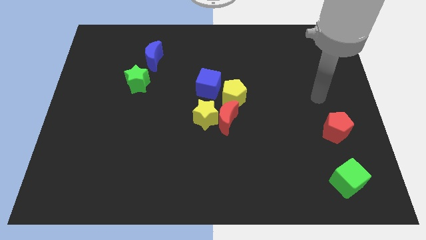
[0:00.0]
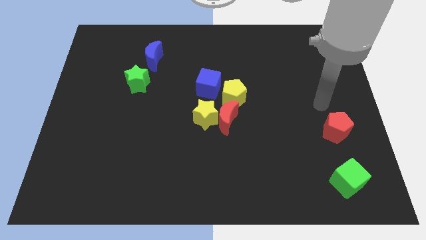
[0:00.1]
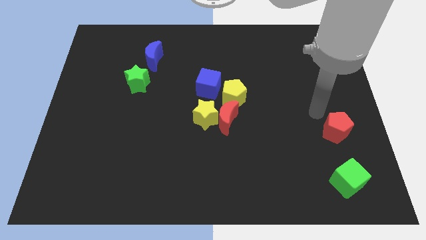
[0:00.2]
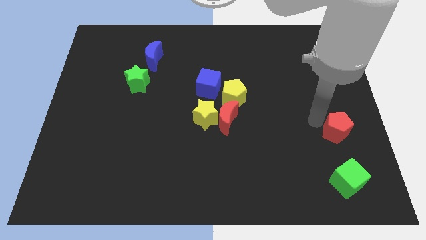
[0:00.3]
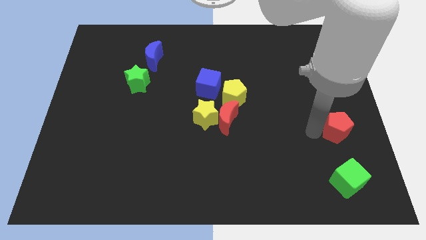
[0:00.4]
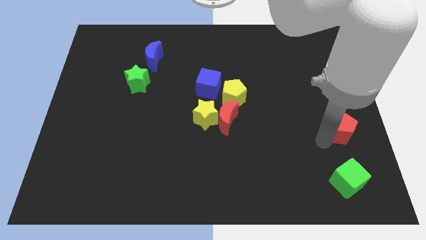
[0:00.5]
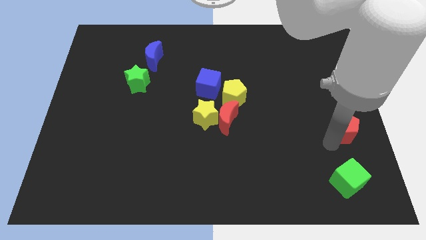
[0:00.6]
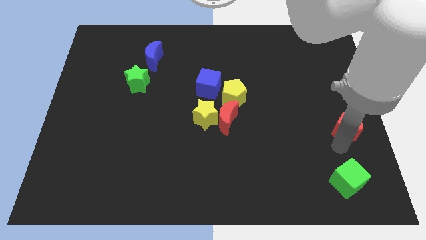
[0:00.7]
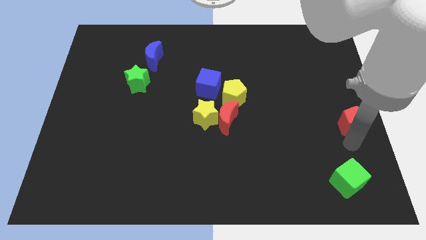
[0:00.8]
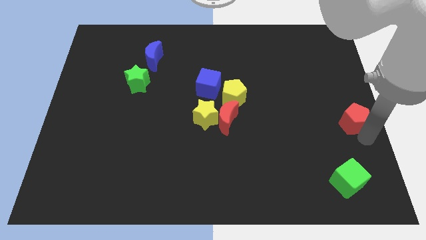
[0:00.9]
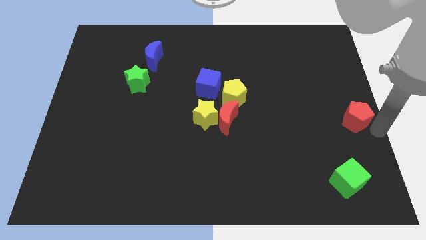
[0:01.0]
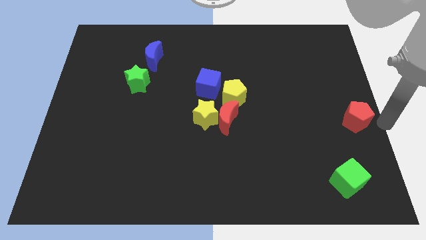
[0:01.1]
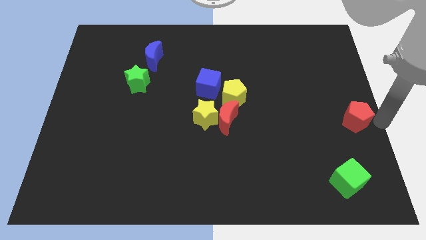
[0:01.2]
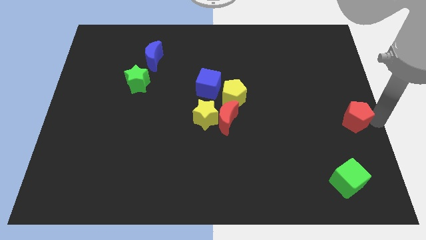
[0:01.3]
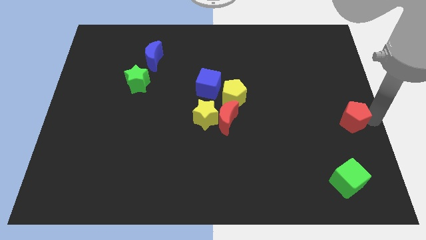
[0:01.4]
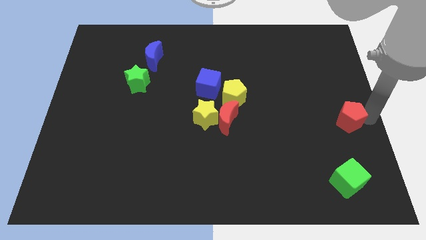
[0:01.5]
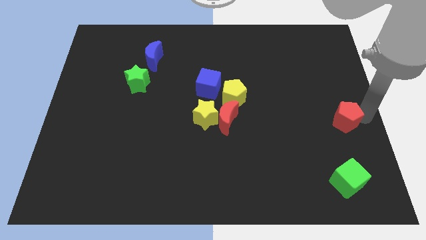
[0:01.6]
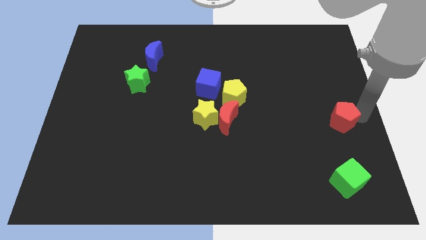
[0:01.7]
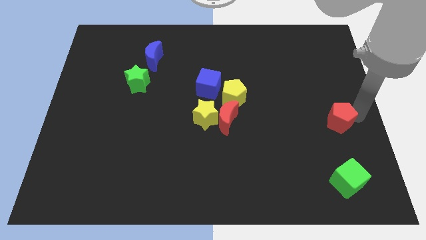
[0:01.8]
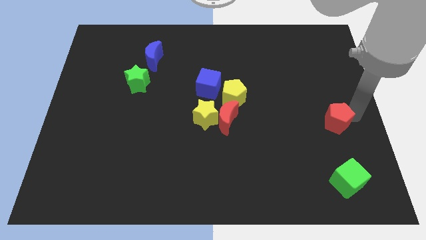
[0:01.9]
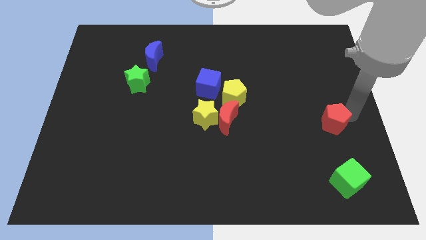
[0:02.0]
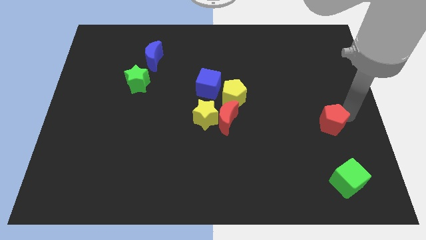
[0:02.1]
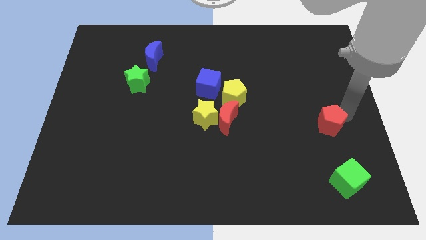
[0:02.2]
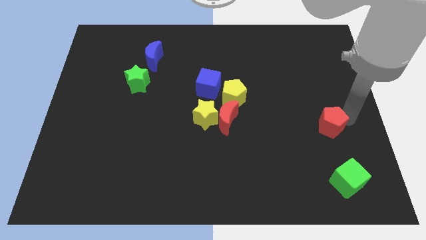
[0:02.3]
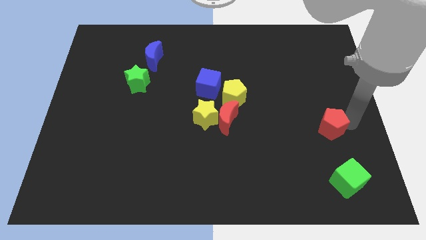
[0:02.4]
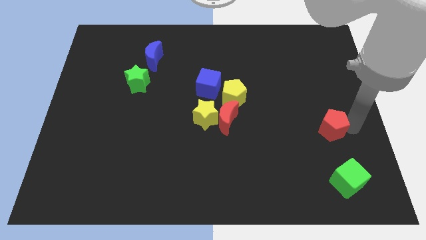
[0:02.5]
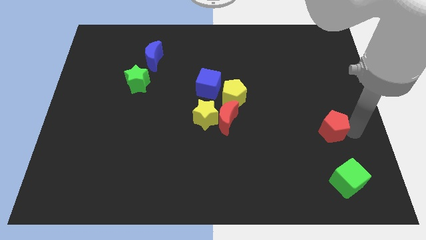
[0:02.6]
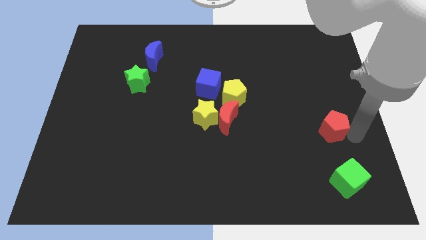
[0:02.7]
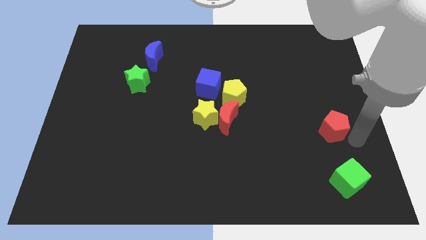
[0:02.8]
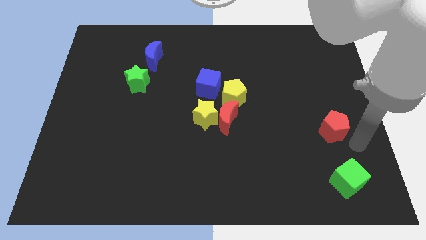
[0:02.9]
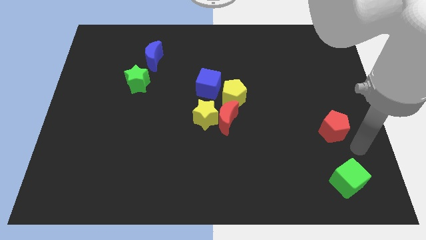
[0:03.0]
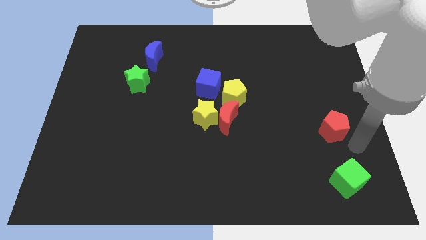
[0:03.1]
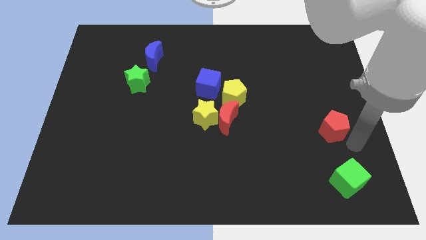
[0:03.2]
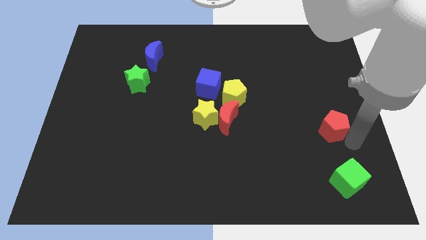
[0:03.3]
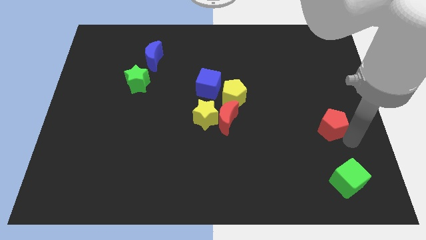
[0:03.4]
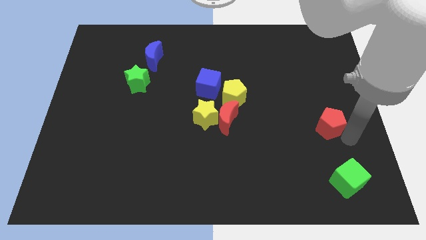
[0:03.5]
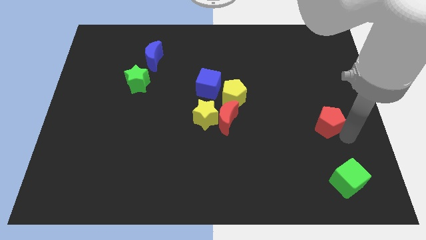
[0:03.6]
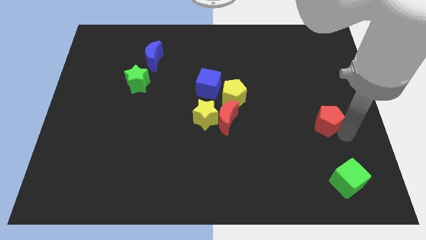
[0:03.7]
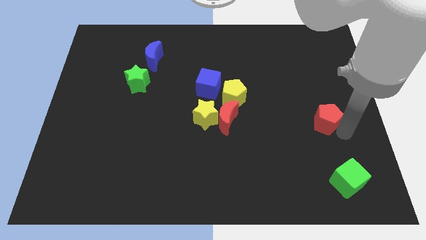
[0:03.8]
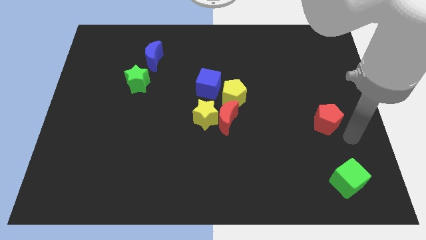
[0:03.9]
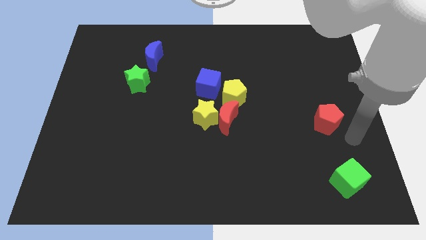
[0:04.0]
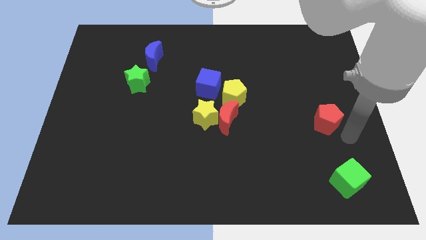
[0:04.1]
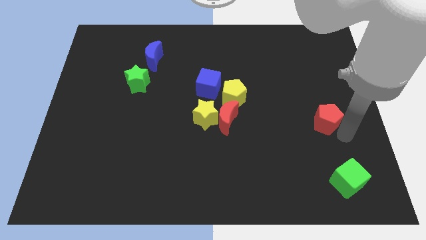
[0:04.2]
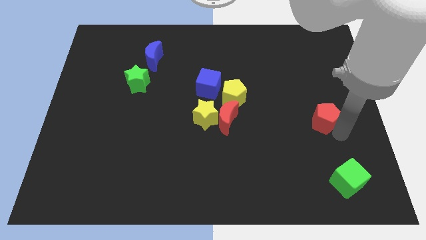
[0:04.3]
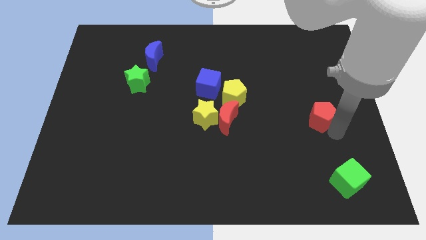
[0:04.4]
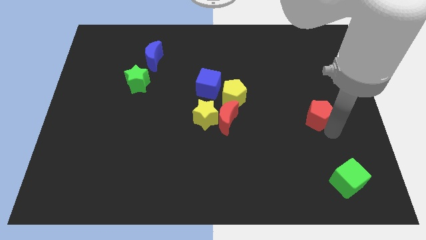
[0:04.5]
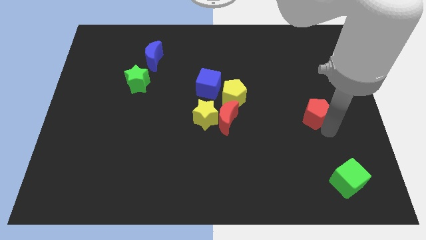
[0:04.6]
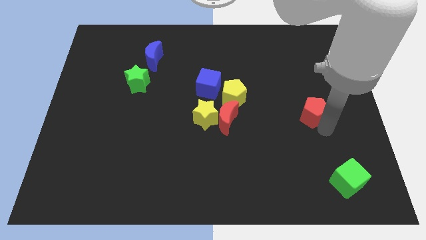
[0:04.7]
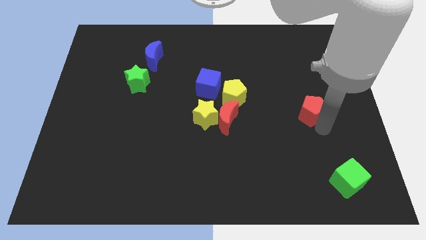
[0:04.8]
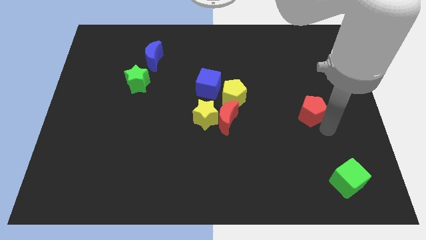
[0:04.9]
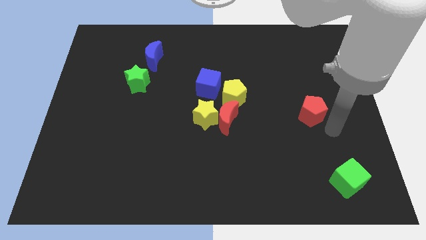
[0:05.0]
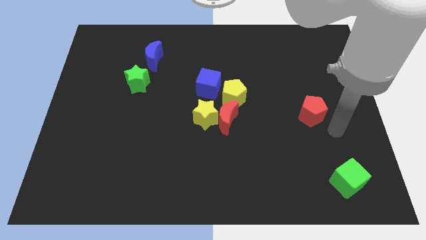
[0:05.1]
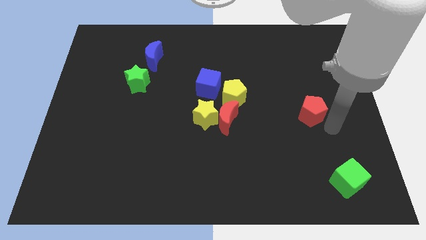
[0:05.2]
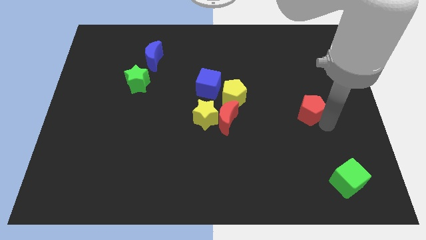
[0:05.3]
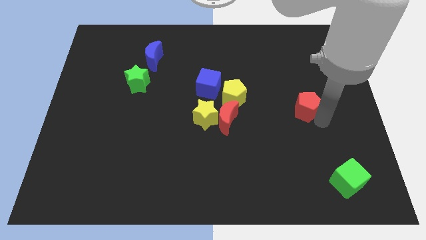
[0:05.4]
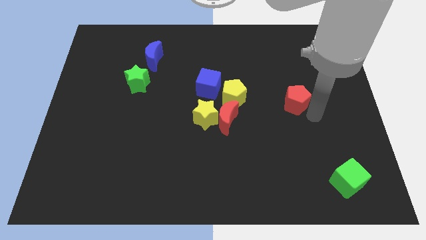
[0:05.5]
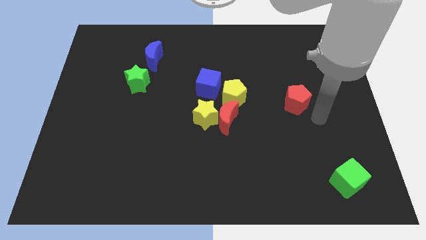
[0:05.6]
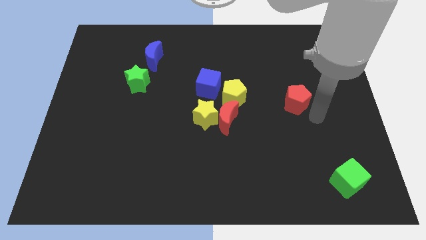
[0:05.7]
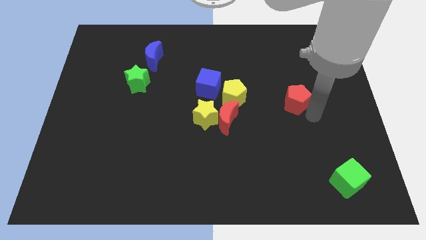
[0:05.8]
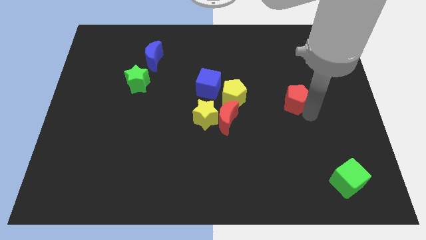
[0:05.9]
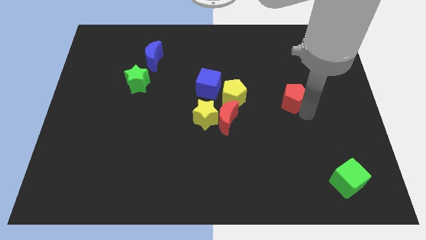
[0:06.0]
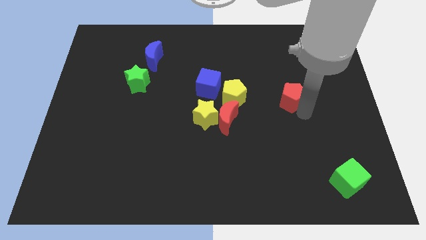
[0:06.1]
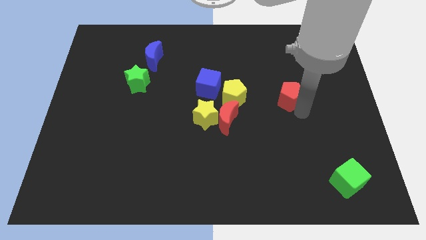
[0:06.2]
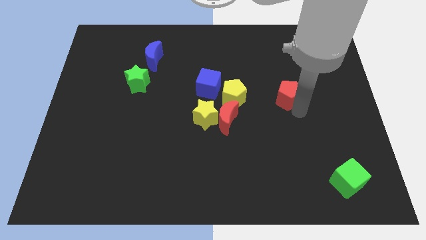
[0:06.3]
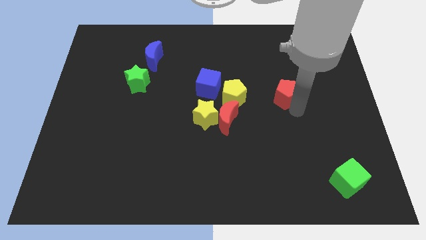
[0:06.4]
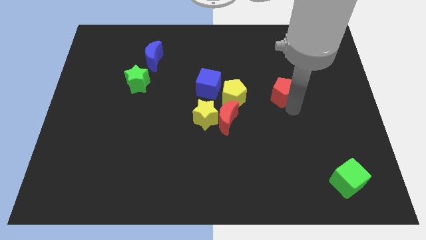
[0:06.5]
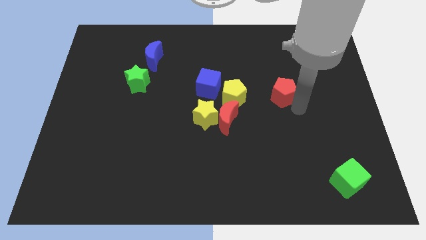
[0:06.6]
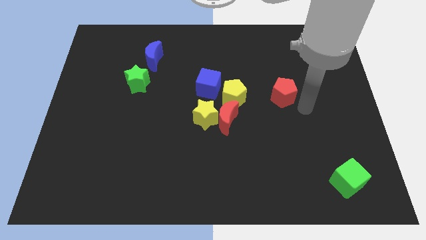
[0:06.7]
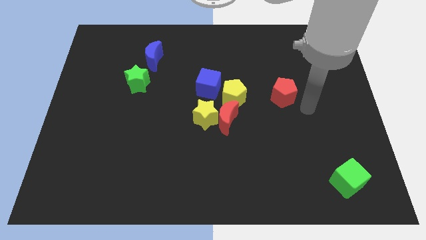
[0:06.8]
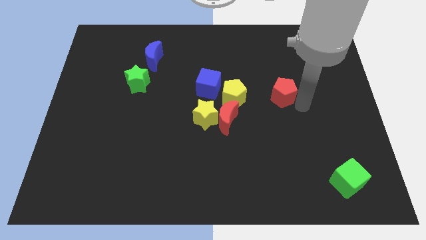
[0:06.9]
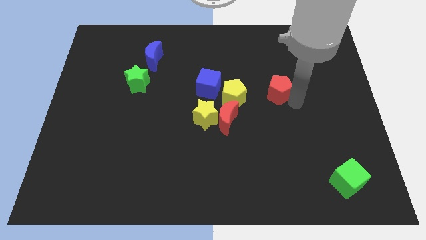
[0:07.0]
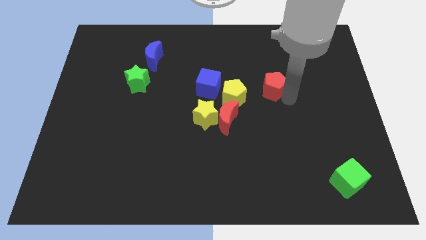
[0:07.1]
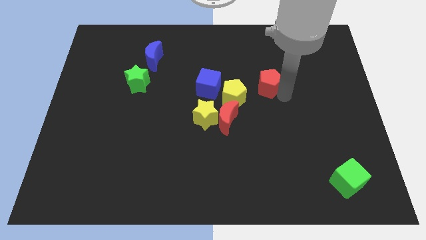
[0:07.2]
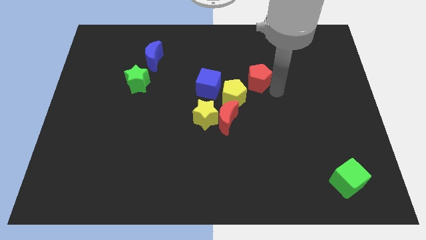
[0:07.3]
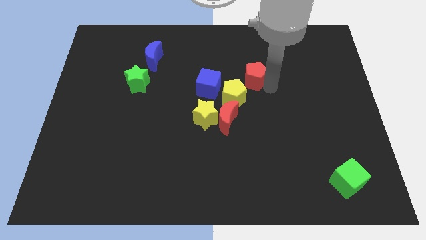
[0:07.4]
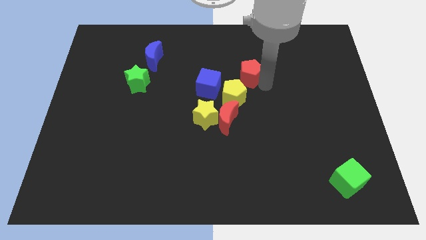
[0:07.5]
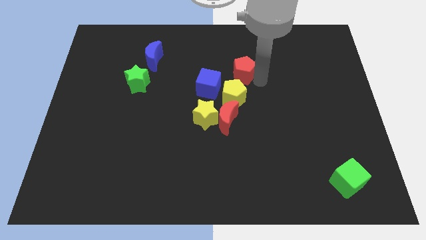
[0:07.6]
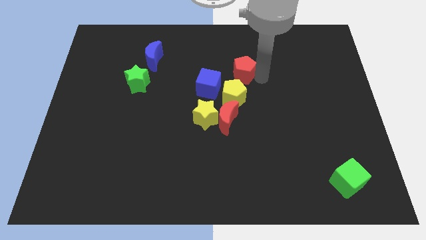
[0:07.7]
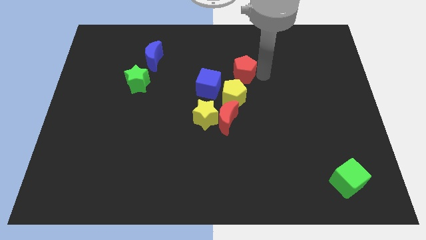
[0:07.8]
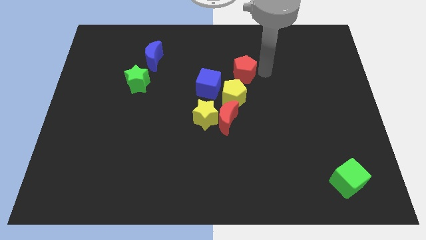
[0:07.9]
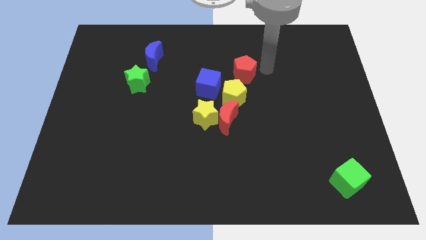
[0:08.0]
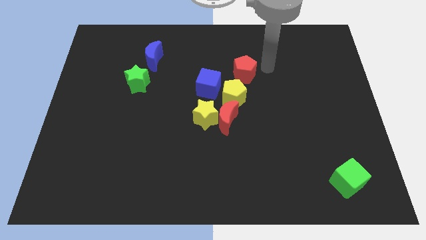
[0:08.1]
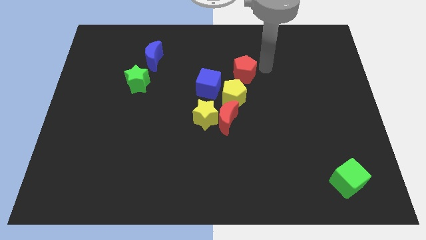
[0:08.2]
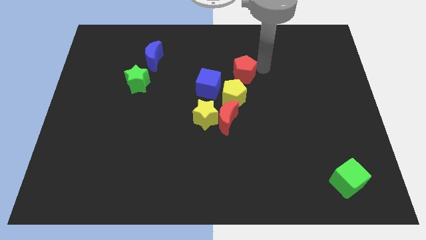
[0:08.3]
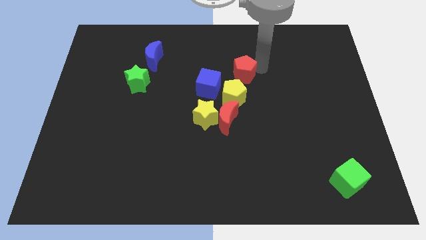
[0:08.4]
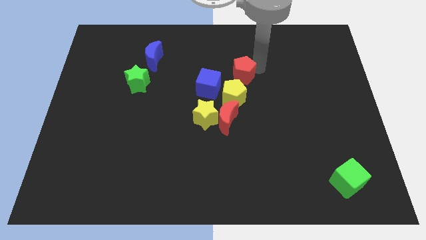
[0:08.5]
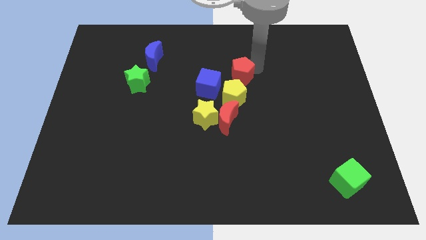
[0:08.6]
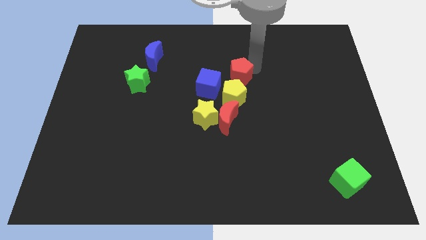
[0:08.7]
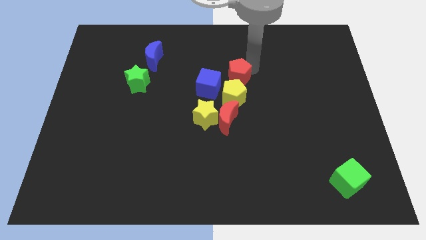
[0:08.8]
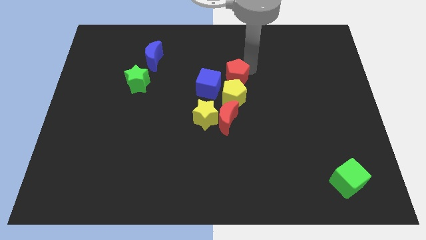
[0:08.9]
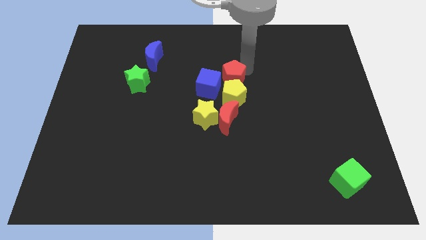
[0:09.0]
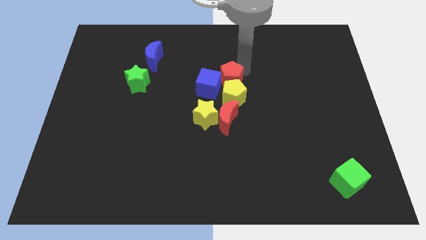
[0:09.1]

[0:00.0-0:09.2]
put the red pentagon next to the blue cube
